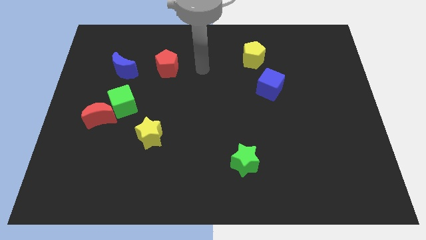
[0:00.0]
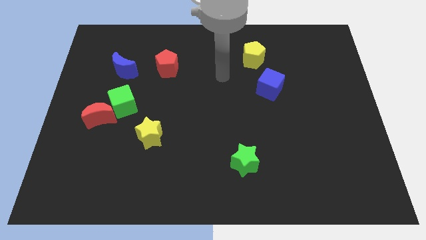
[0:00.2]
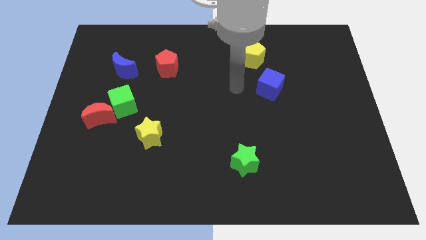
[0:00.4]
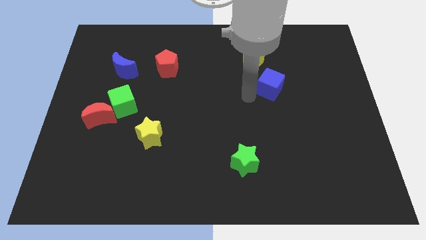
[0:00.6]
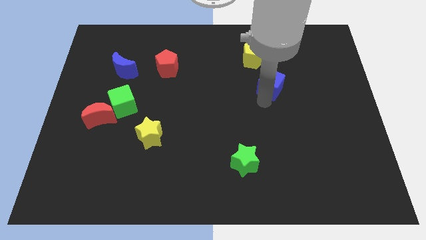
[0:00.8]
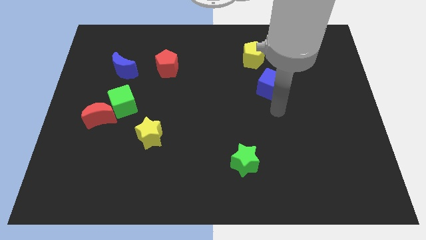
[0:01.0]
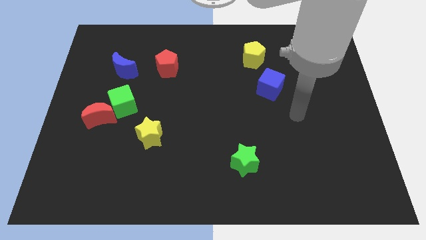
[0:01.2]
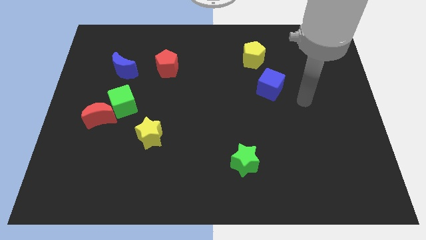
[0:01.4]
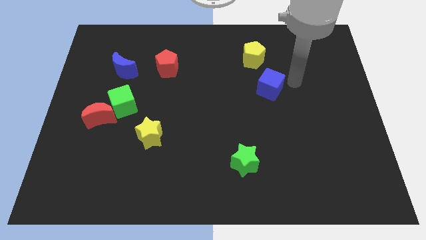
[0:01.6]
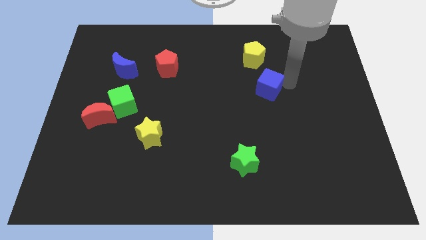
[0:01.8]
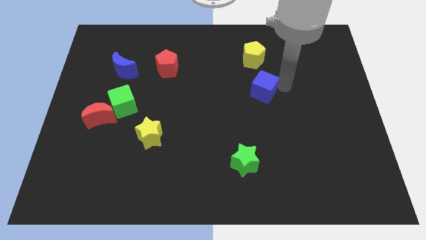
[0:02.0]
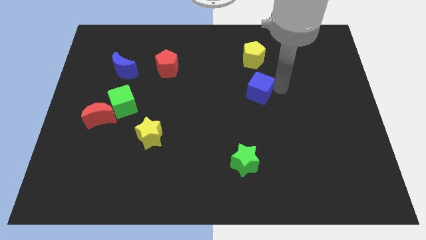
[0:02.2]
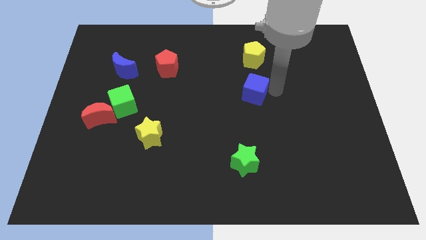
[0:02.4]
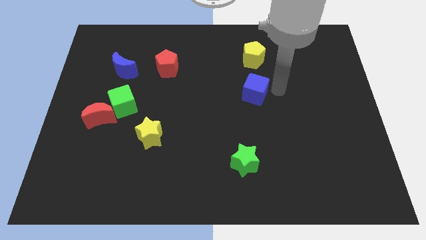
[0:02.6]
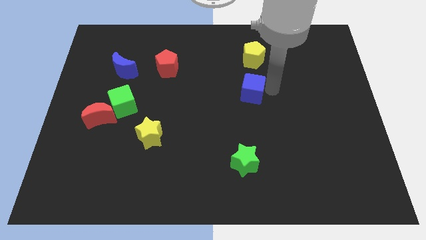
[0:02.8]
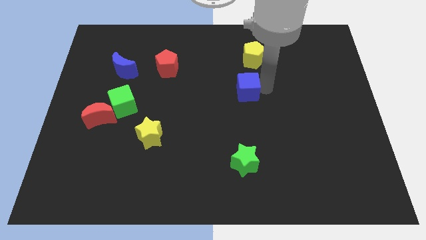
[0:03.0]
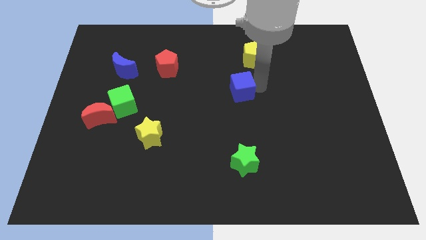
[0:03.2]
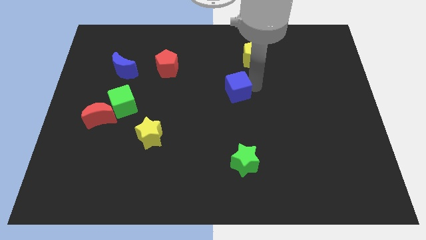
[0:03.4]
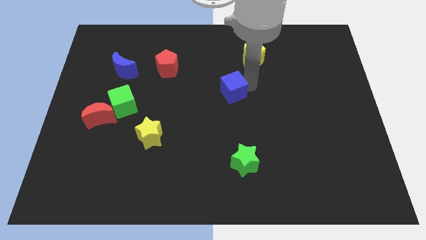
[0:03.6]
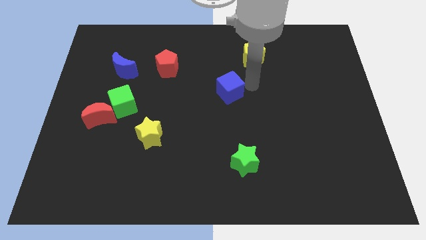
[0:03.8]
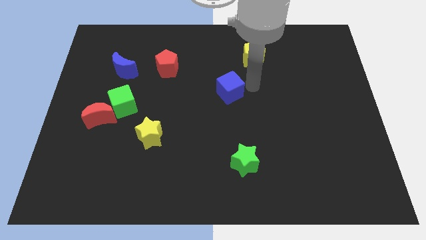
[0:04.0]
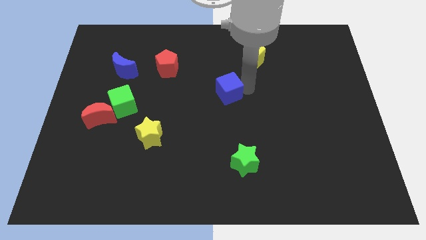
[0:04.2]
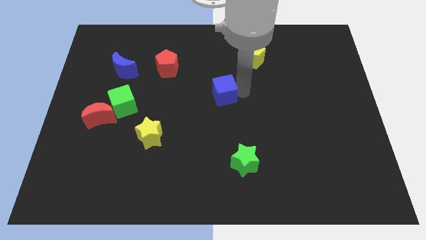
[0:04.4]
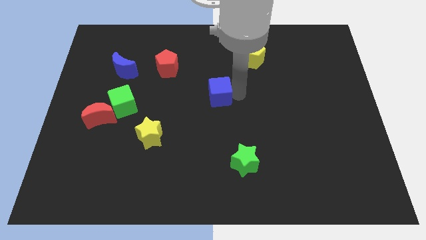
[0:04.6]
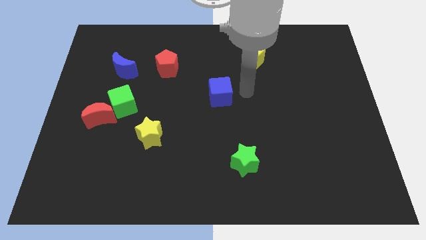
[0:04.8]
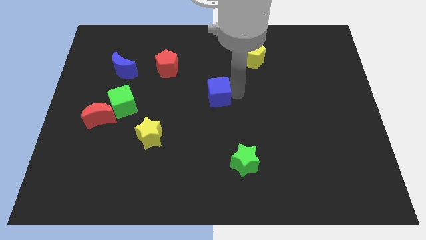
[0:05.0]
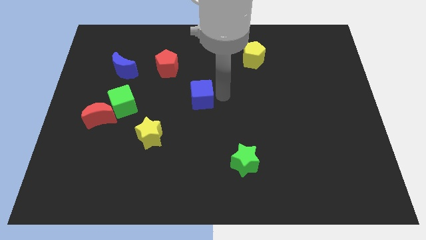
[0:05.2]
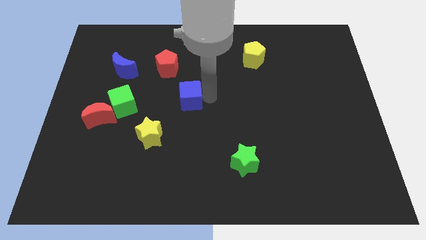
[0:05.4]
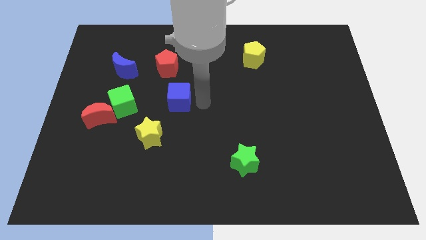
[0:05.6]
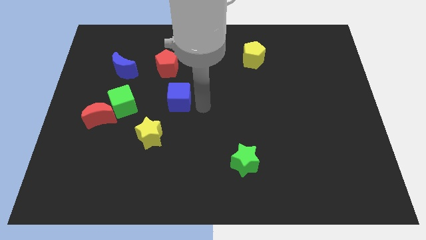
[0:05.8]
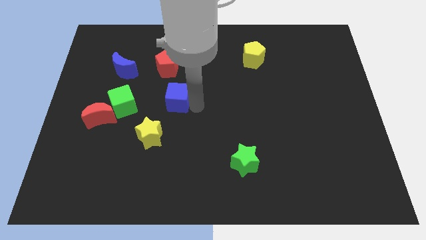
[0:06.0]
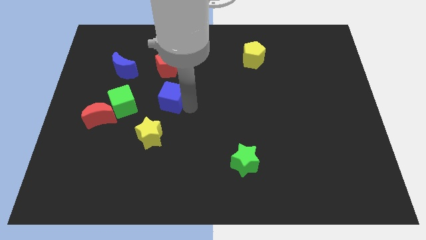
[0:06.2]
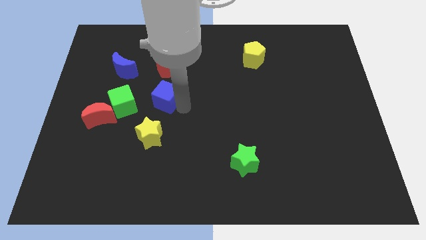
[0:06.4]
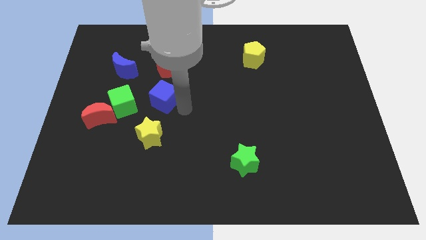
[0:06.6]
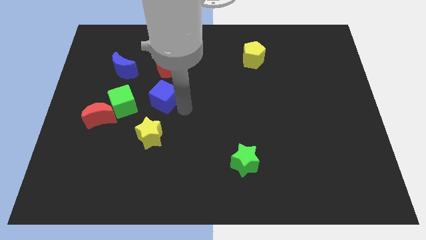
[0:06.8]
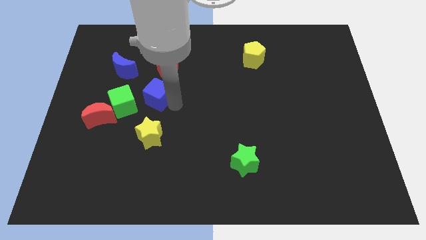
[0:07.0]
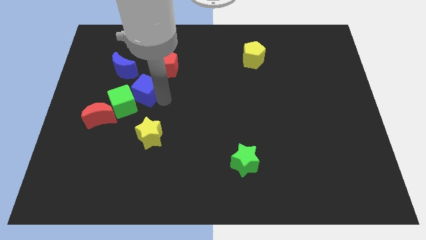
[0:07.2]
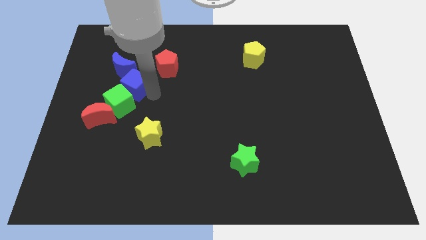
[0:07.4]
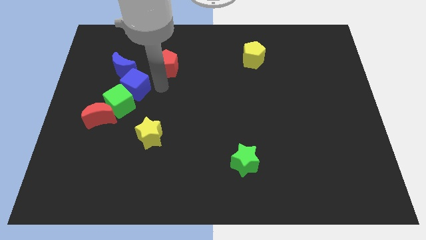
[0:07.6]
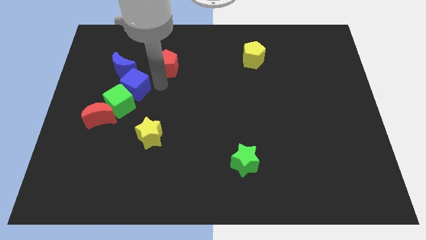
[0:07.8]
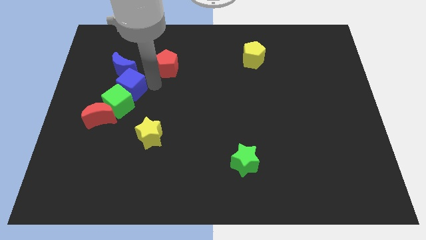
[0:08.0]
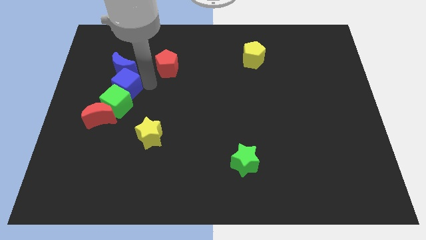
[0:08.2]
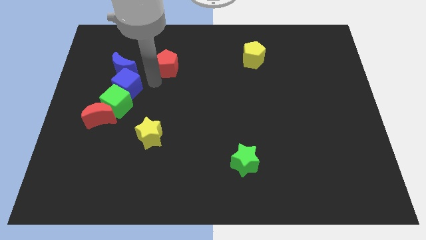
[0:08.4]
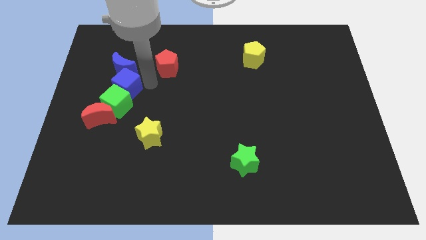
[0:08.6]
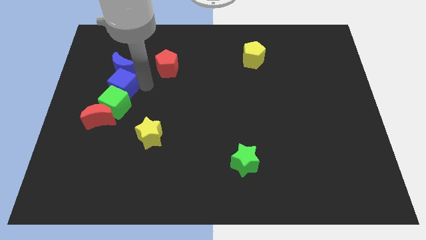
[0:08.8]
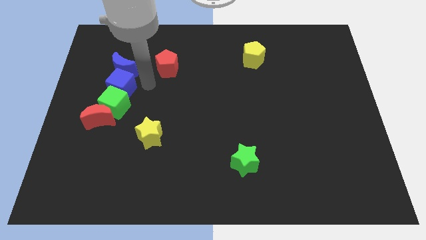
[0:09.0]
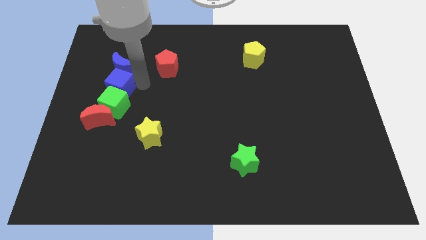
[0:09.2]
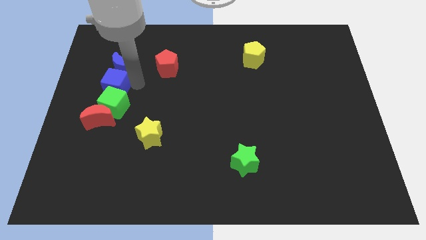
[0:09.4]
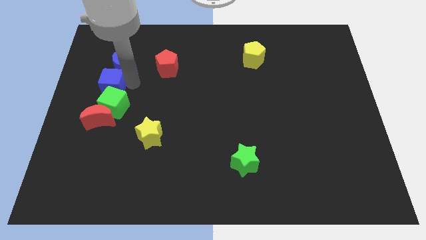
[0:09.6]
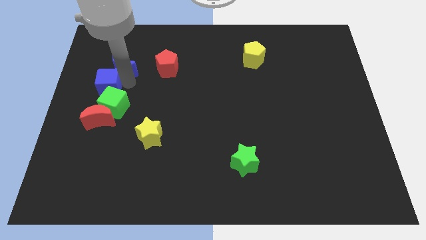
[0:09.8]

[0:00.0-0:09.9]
push the blue cube to the left side of the board

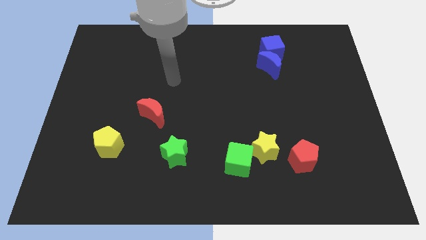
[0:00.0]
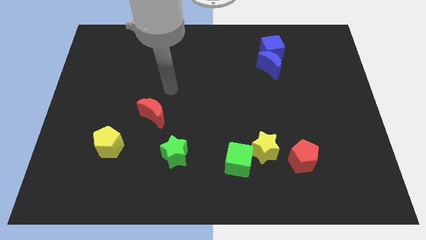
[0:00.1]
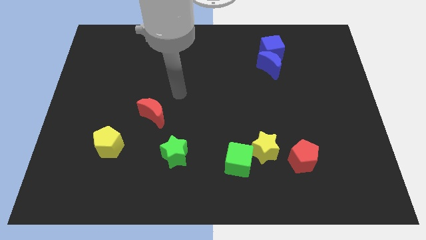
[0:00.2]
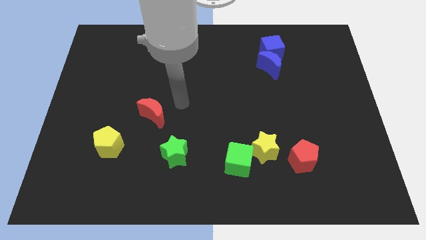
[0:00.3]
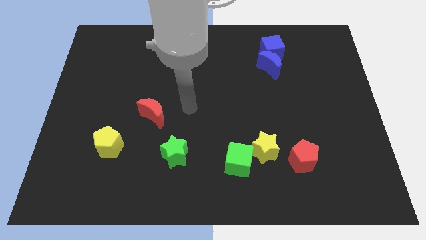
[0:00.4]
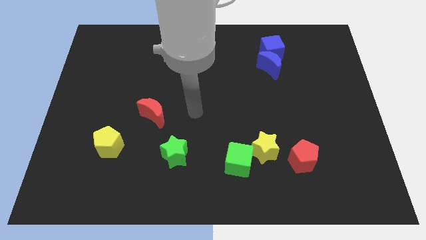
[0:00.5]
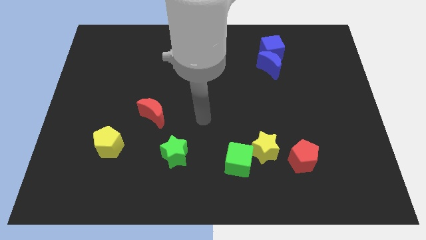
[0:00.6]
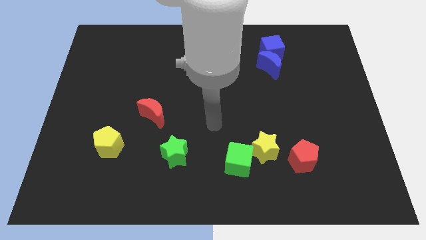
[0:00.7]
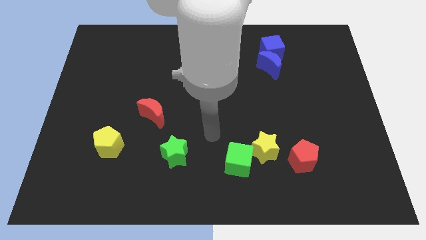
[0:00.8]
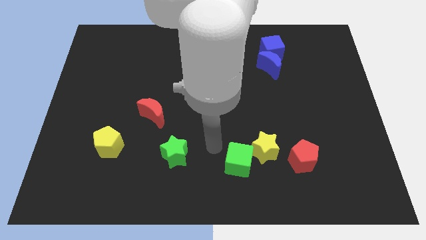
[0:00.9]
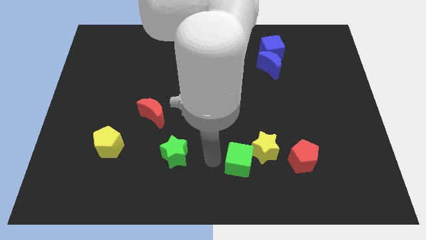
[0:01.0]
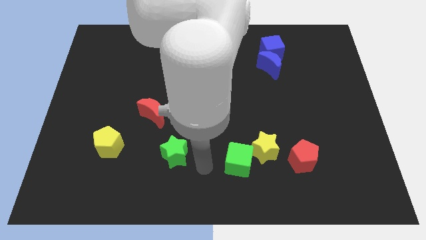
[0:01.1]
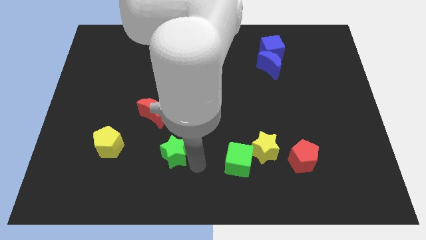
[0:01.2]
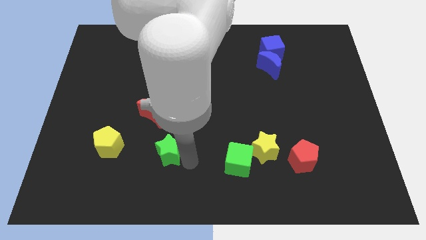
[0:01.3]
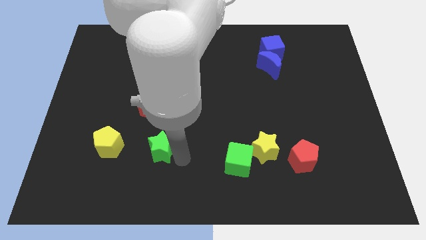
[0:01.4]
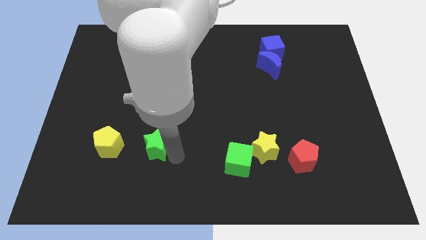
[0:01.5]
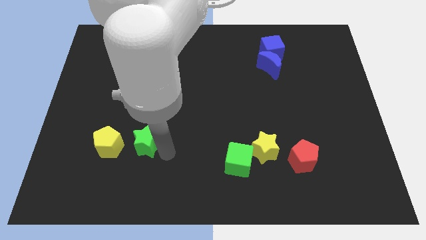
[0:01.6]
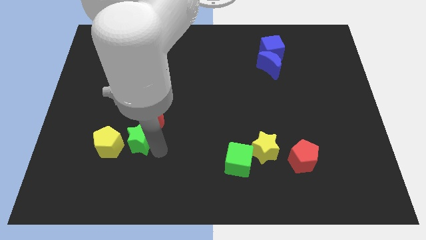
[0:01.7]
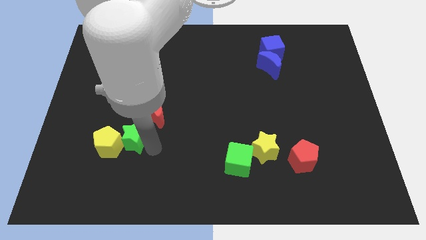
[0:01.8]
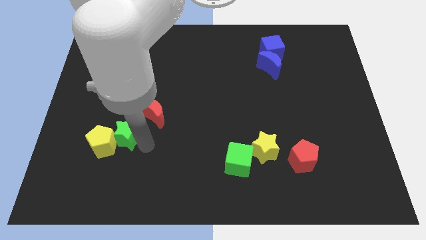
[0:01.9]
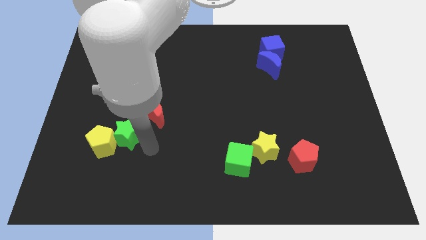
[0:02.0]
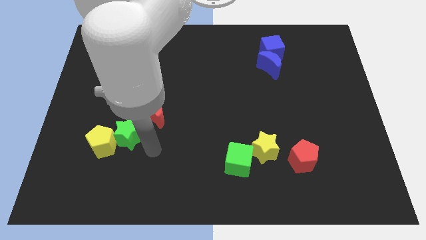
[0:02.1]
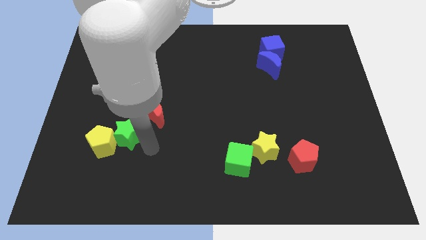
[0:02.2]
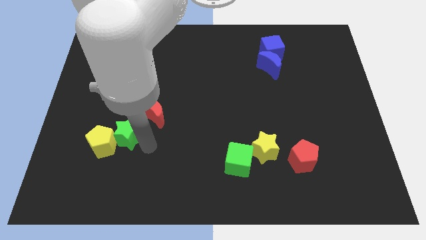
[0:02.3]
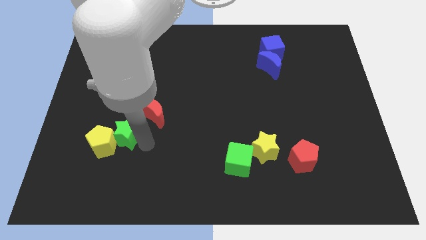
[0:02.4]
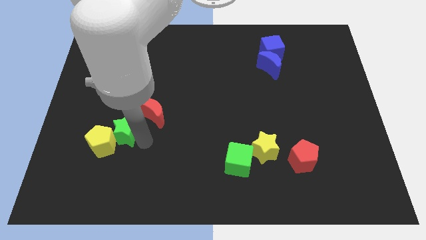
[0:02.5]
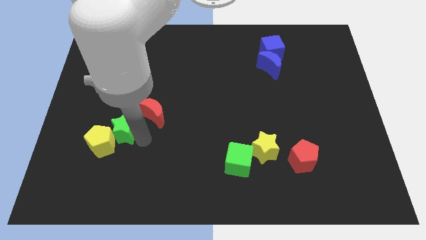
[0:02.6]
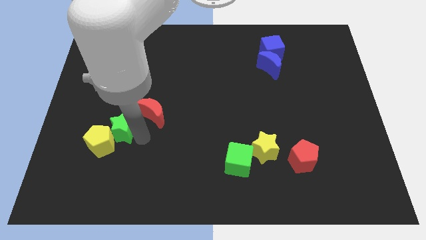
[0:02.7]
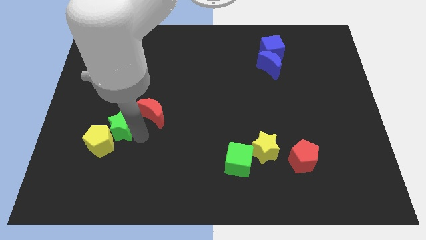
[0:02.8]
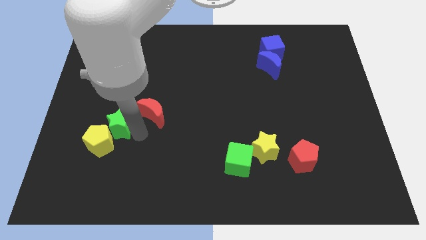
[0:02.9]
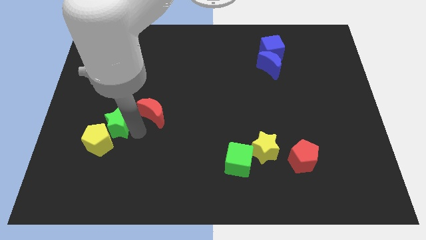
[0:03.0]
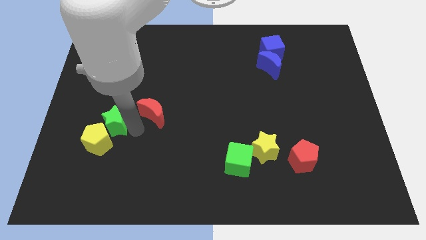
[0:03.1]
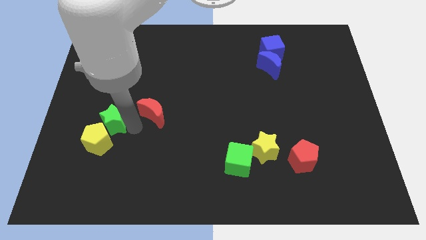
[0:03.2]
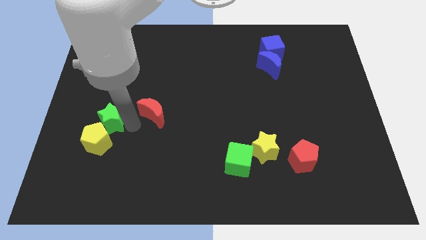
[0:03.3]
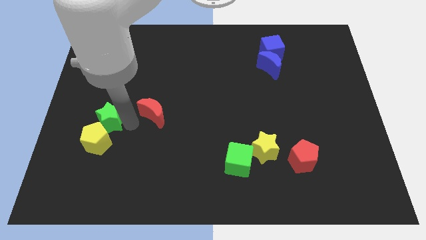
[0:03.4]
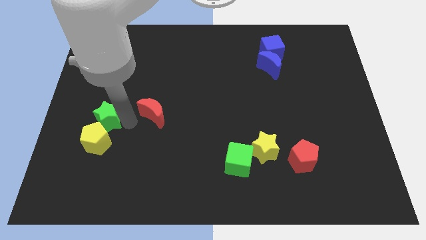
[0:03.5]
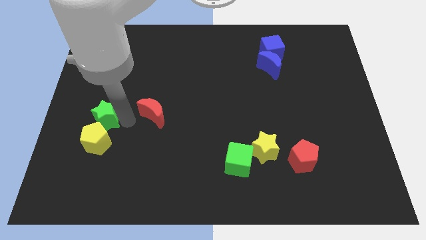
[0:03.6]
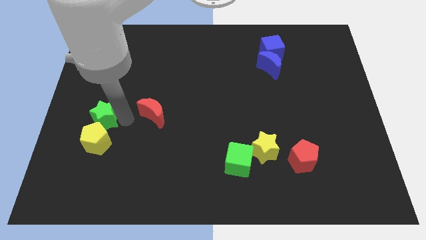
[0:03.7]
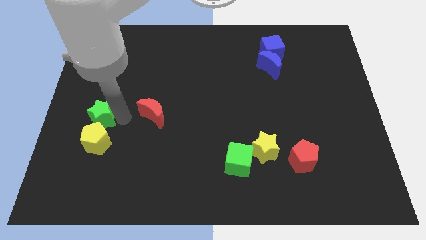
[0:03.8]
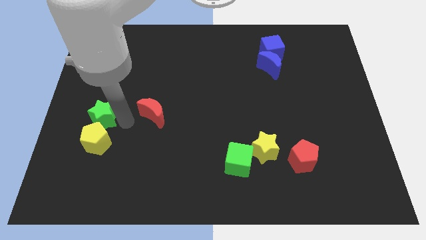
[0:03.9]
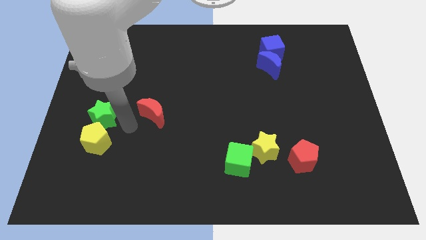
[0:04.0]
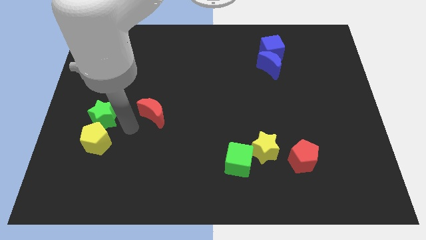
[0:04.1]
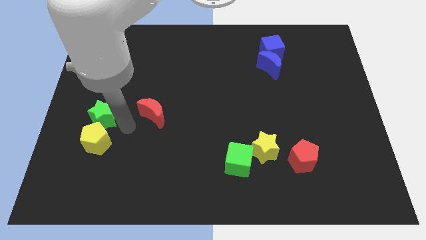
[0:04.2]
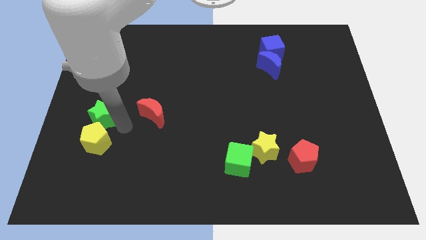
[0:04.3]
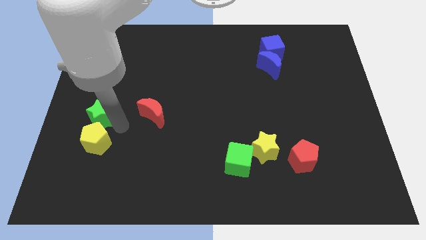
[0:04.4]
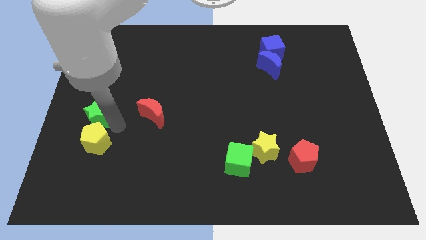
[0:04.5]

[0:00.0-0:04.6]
put the green star to the left side of the board
